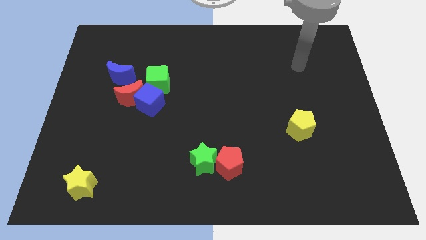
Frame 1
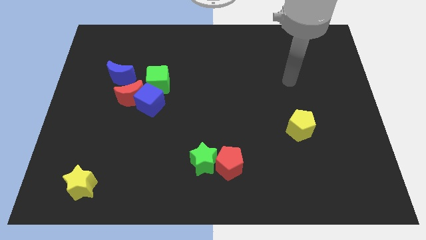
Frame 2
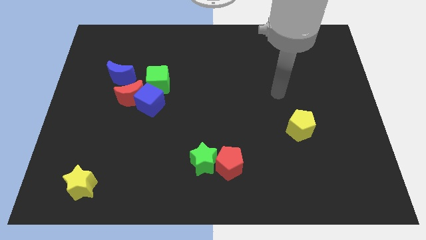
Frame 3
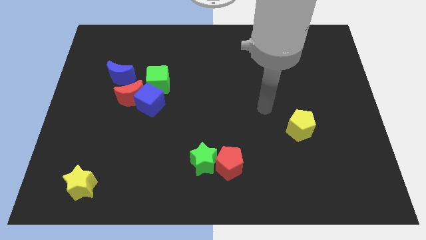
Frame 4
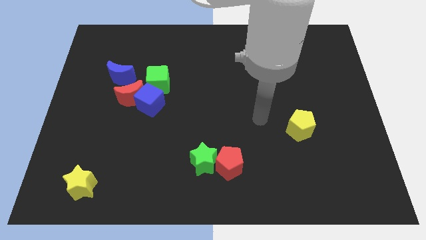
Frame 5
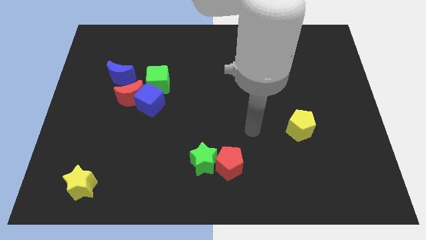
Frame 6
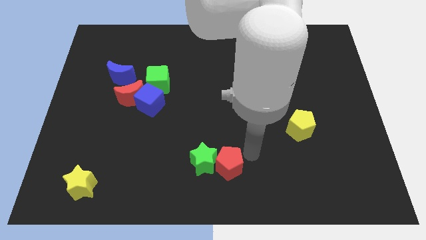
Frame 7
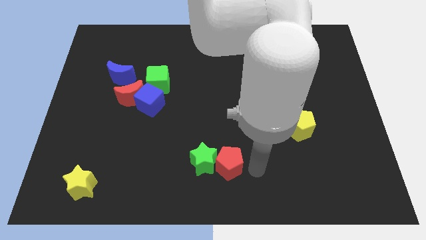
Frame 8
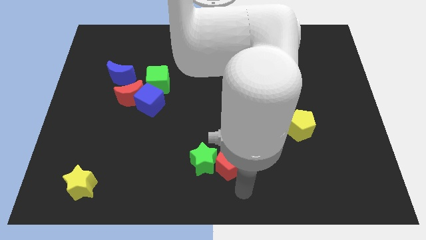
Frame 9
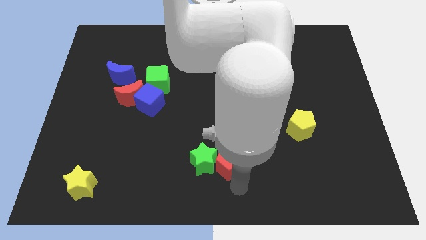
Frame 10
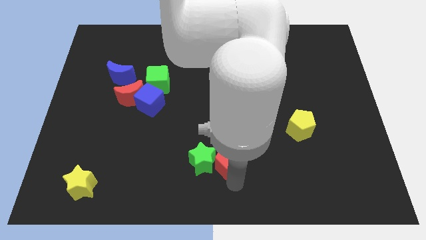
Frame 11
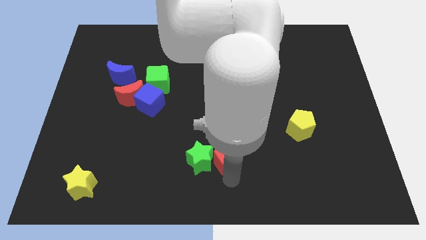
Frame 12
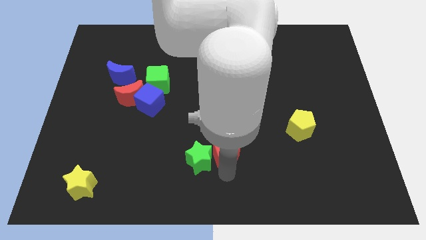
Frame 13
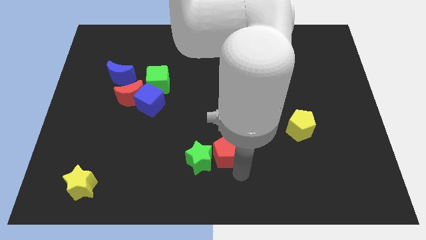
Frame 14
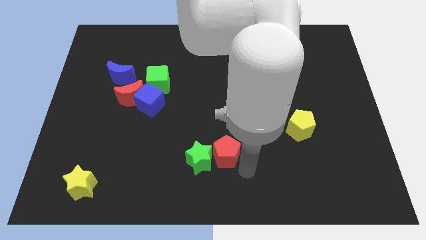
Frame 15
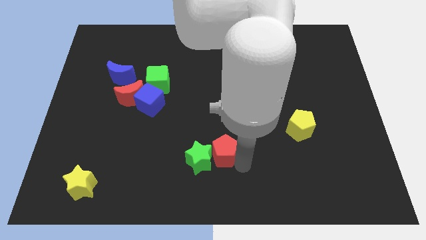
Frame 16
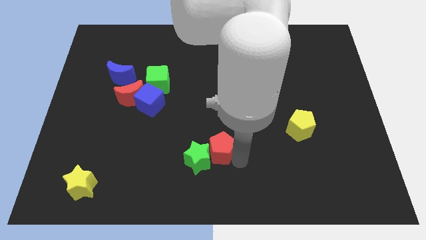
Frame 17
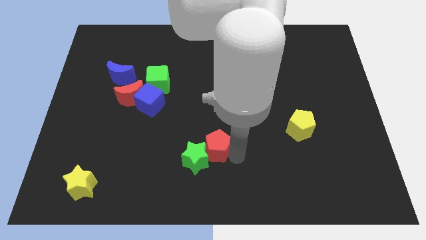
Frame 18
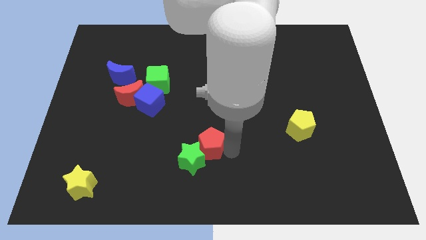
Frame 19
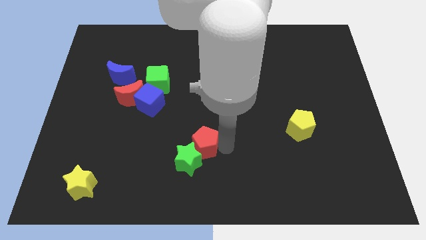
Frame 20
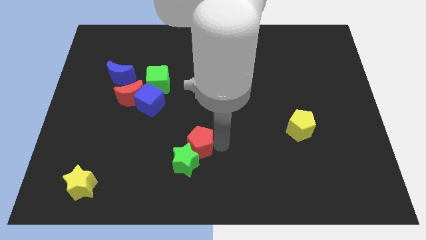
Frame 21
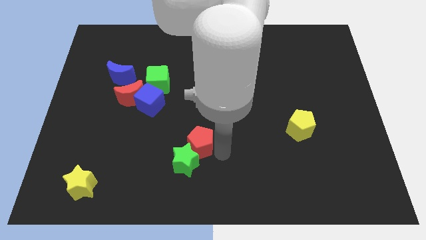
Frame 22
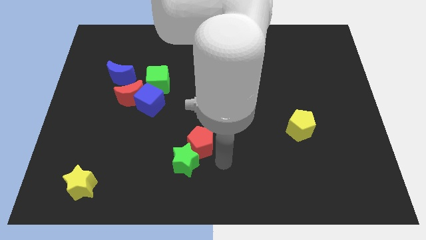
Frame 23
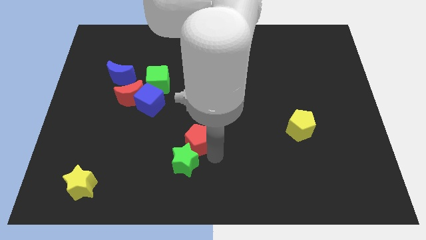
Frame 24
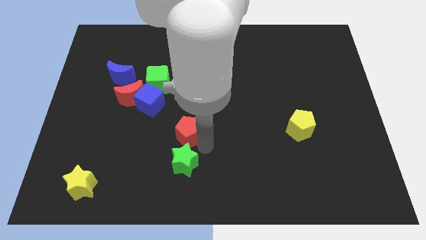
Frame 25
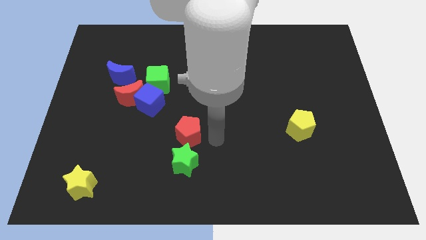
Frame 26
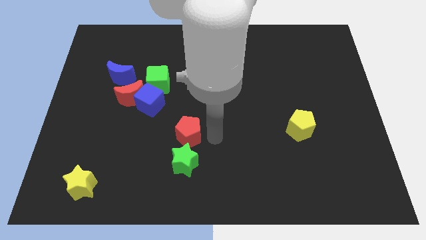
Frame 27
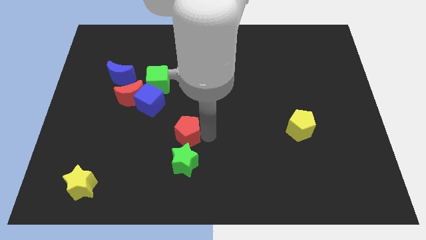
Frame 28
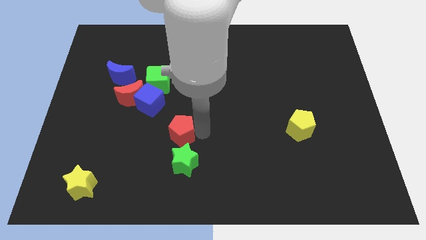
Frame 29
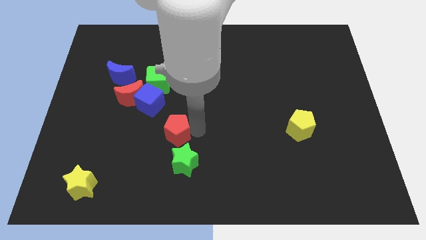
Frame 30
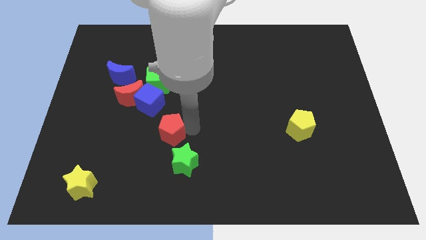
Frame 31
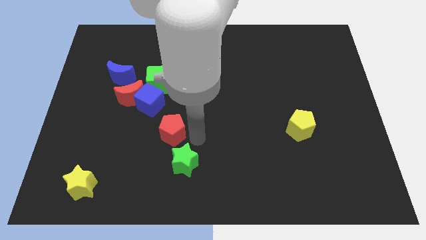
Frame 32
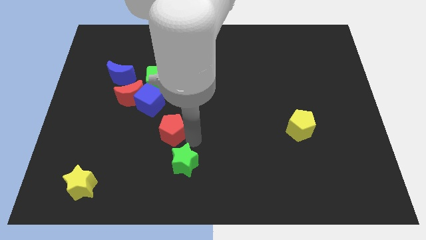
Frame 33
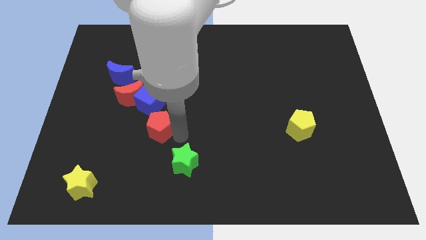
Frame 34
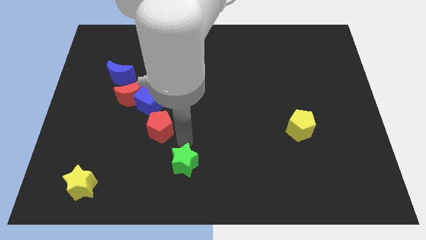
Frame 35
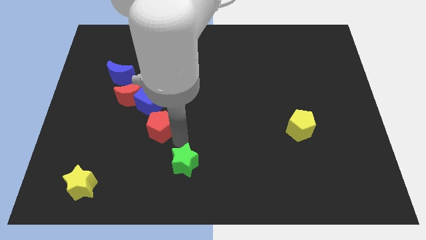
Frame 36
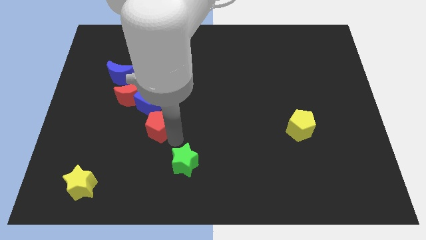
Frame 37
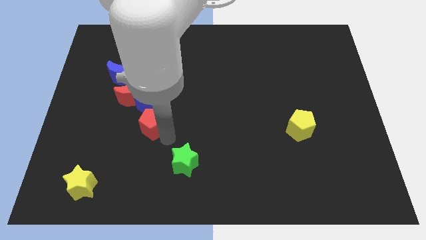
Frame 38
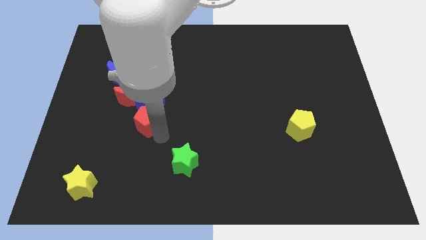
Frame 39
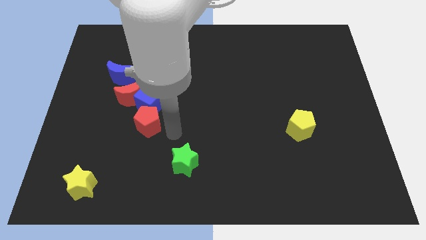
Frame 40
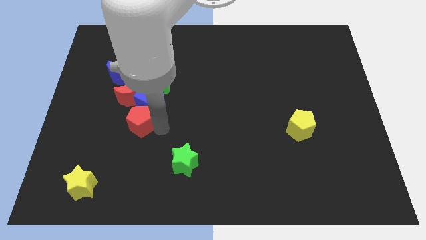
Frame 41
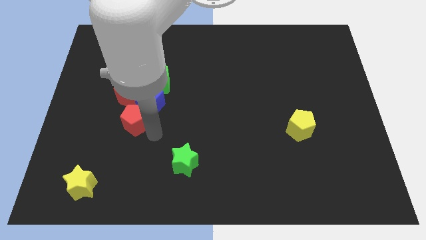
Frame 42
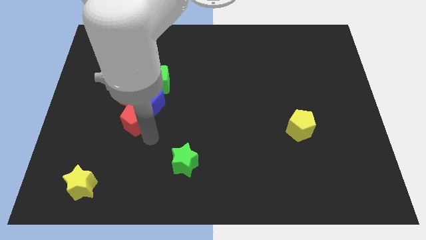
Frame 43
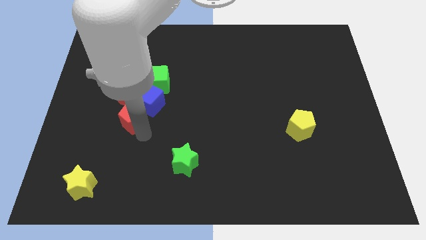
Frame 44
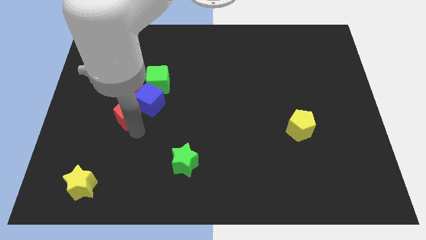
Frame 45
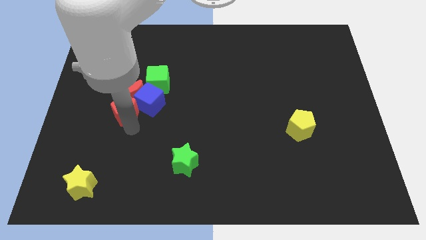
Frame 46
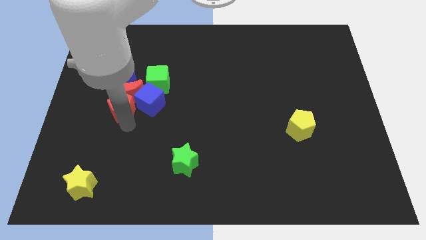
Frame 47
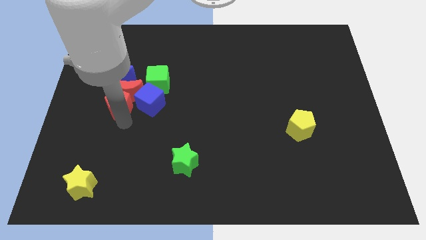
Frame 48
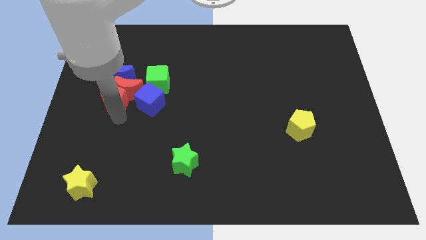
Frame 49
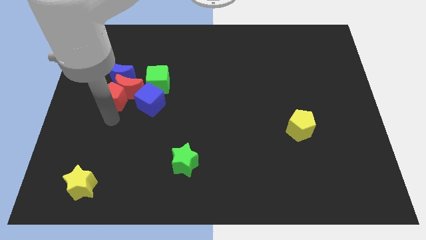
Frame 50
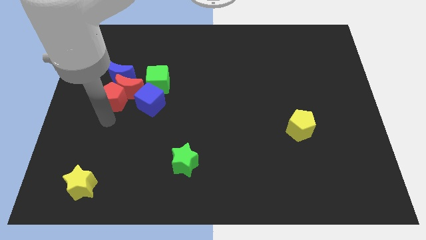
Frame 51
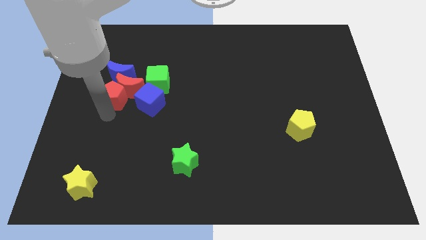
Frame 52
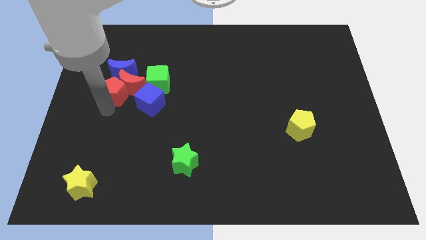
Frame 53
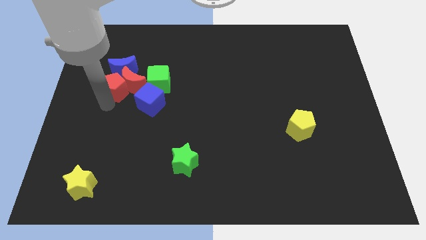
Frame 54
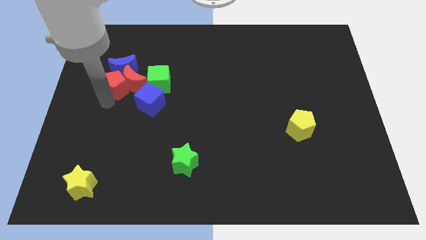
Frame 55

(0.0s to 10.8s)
move the red pentagon close to the blue moon
